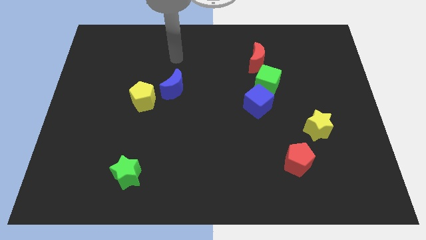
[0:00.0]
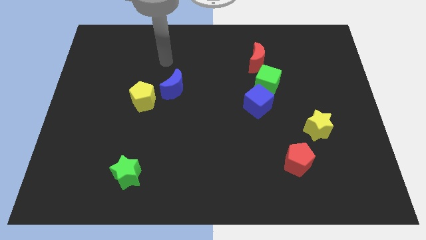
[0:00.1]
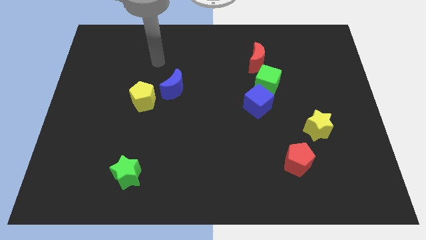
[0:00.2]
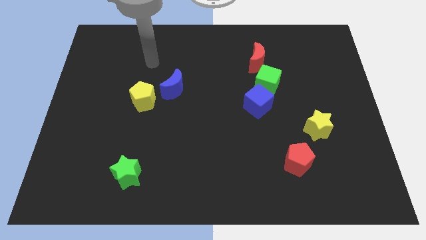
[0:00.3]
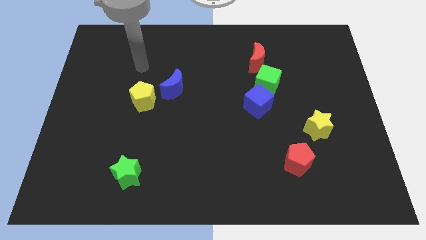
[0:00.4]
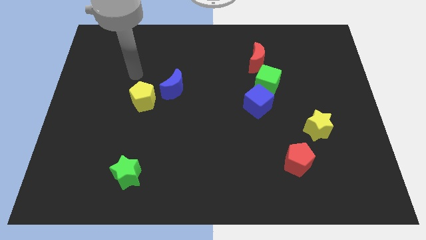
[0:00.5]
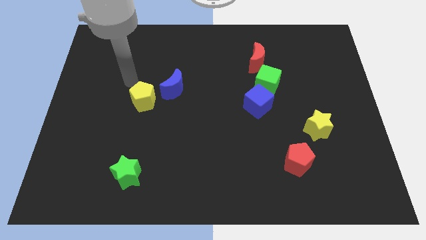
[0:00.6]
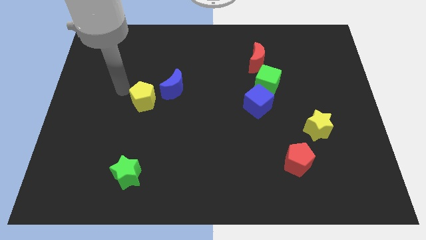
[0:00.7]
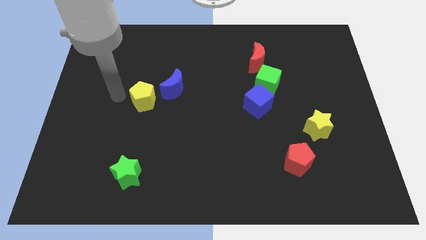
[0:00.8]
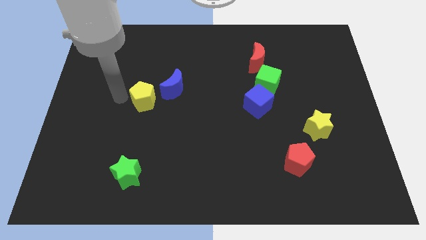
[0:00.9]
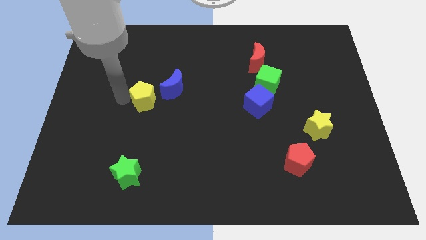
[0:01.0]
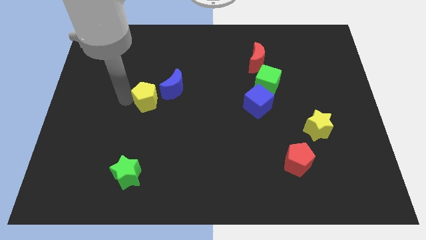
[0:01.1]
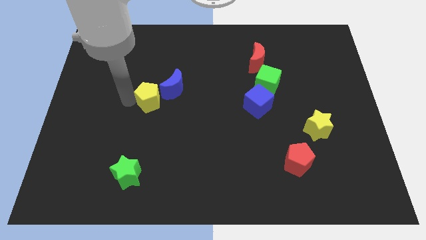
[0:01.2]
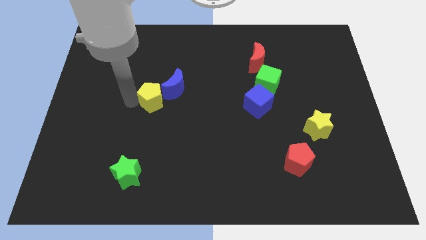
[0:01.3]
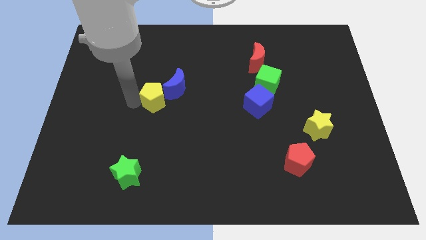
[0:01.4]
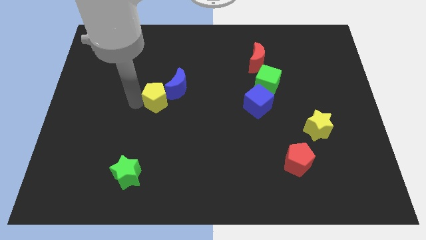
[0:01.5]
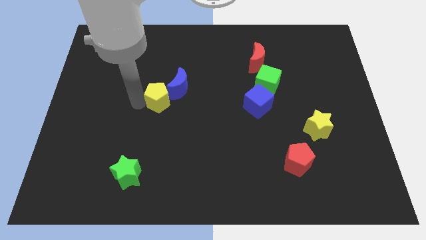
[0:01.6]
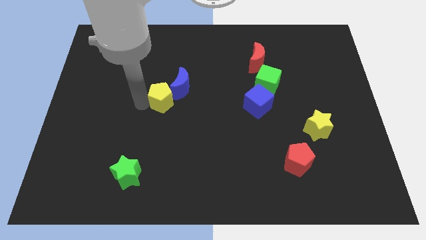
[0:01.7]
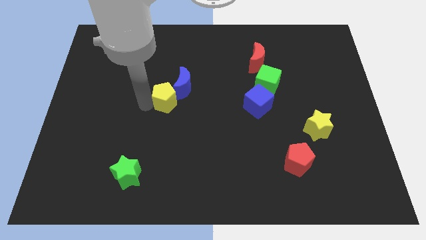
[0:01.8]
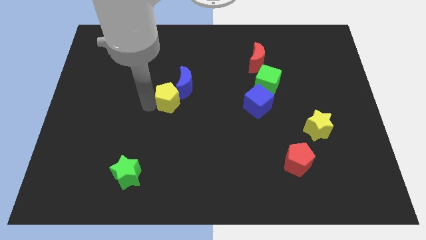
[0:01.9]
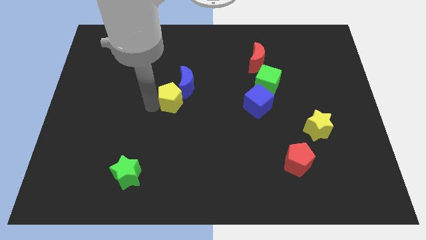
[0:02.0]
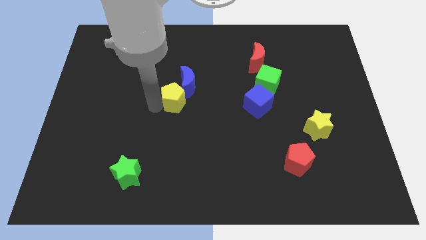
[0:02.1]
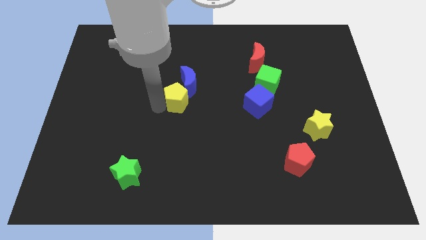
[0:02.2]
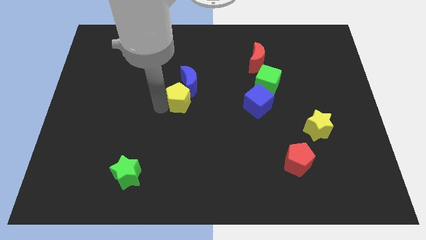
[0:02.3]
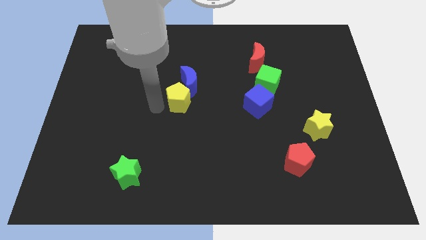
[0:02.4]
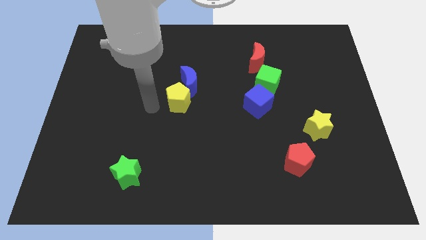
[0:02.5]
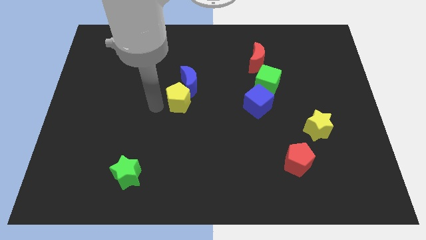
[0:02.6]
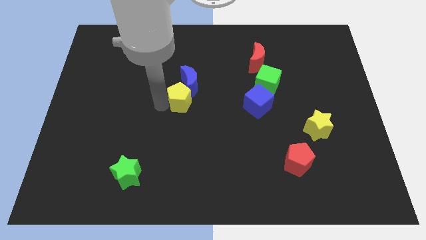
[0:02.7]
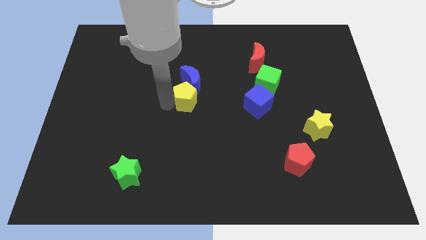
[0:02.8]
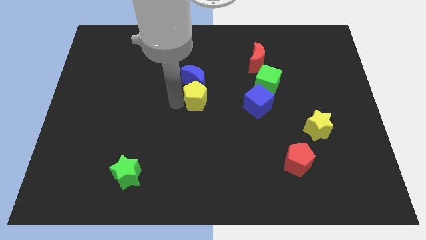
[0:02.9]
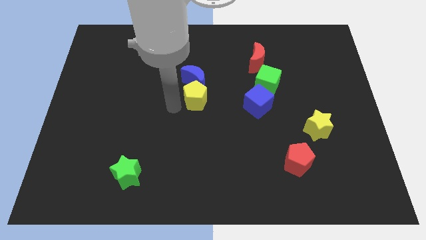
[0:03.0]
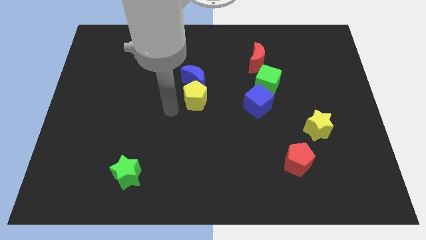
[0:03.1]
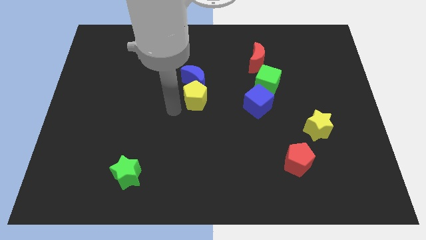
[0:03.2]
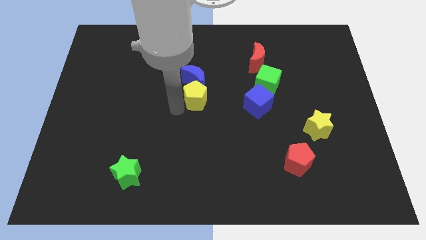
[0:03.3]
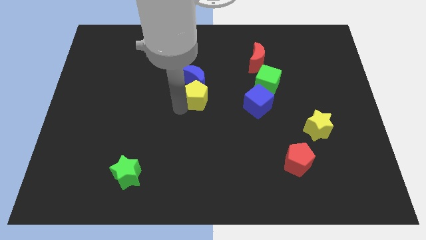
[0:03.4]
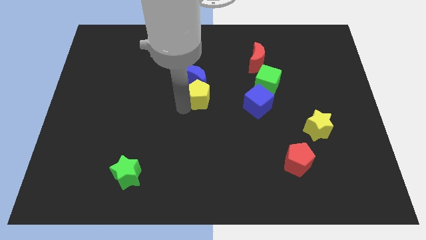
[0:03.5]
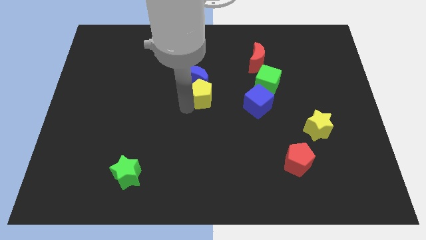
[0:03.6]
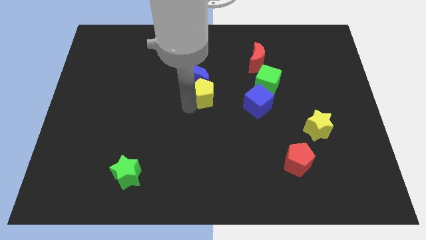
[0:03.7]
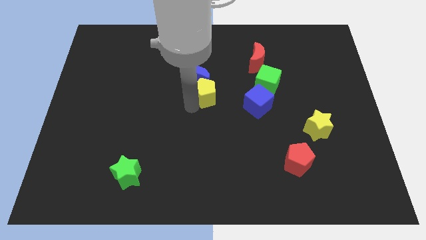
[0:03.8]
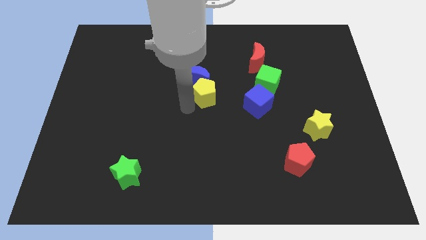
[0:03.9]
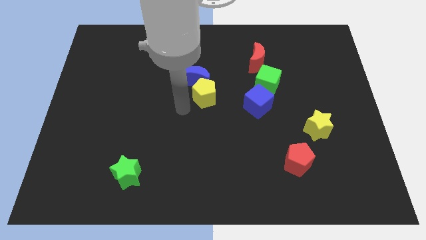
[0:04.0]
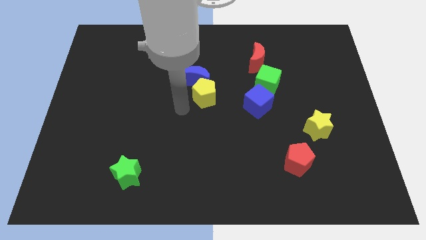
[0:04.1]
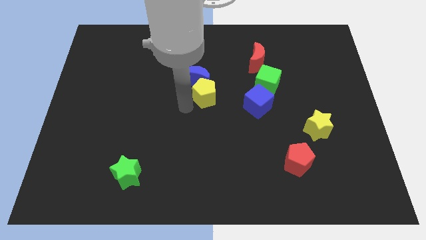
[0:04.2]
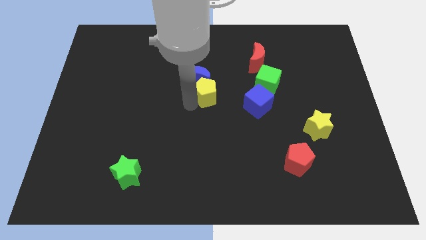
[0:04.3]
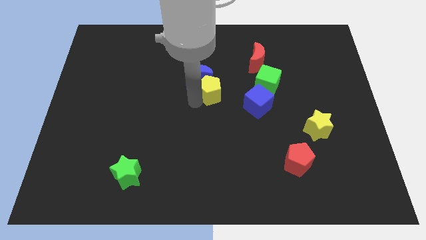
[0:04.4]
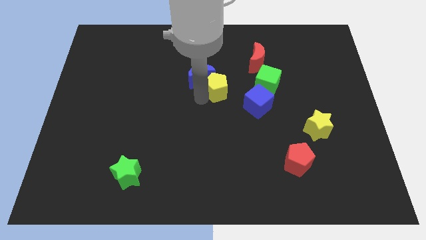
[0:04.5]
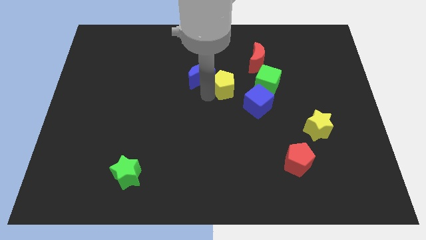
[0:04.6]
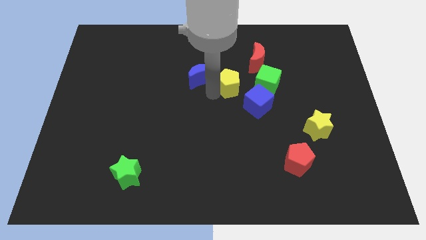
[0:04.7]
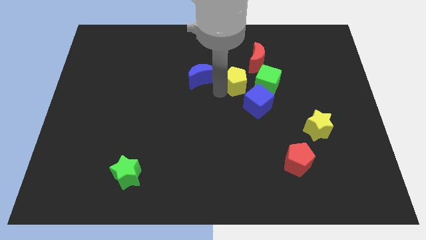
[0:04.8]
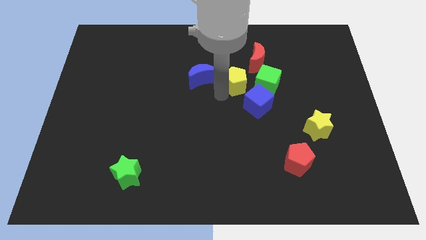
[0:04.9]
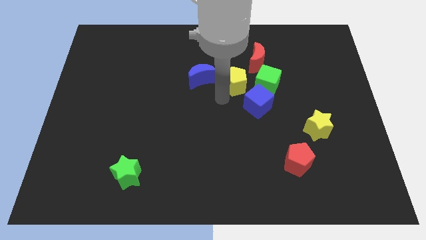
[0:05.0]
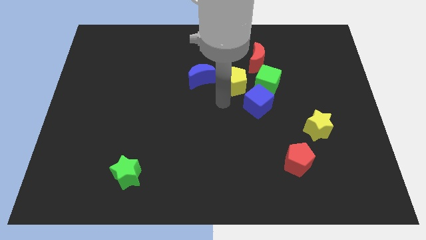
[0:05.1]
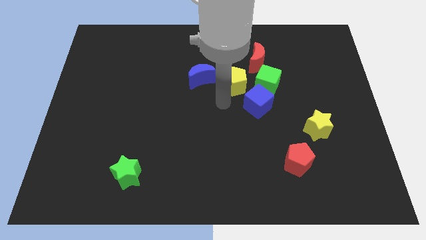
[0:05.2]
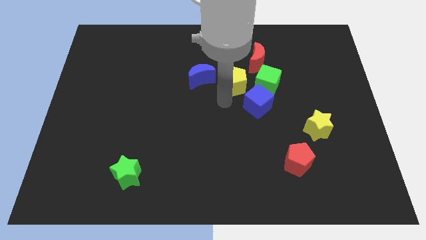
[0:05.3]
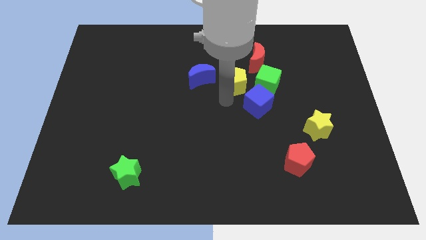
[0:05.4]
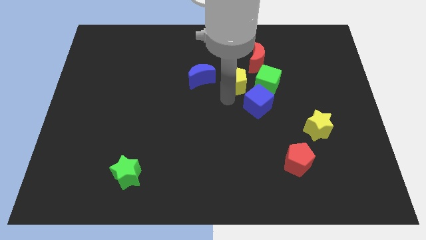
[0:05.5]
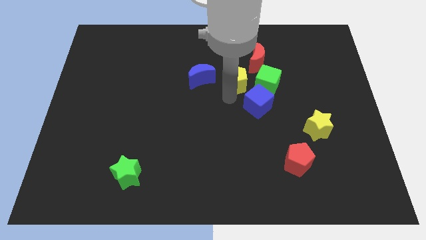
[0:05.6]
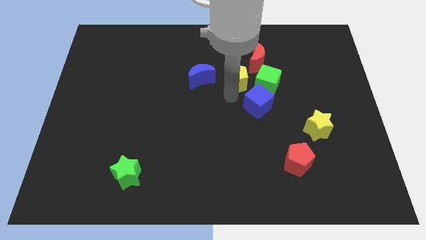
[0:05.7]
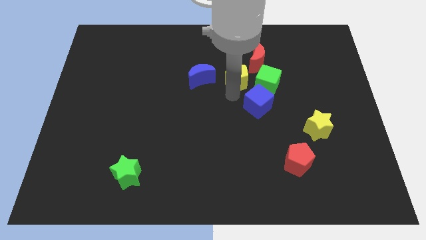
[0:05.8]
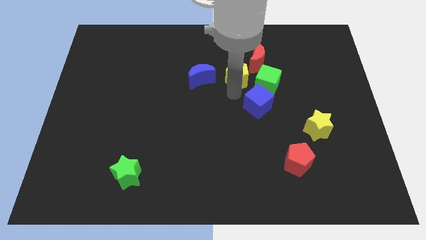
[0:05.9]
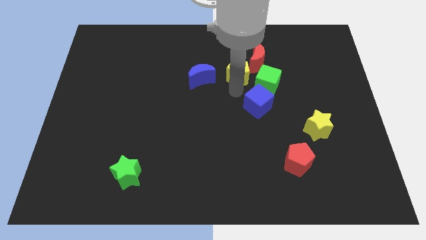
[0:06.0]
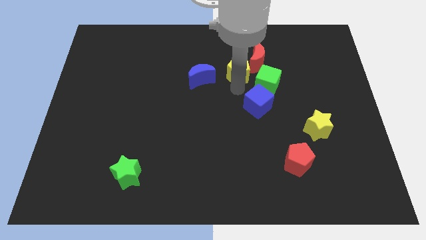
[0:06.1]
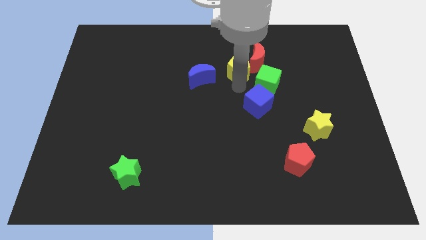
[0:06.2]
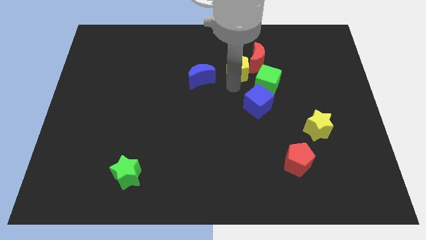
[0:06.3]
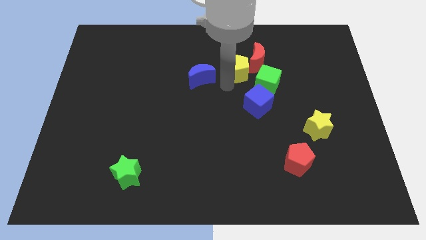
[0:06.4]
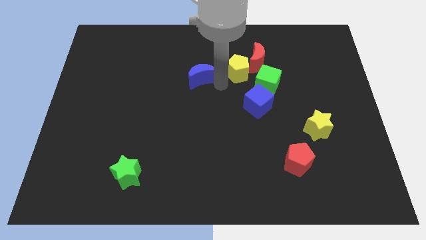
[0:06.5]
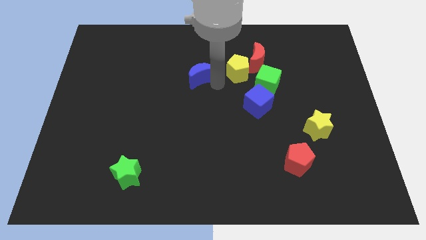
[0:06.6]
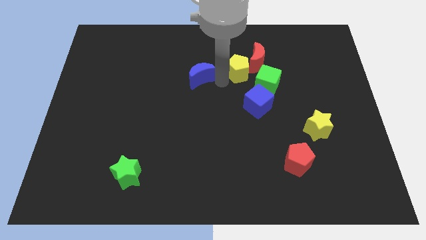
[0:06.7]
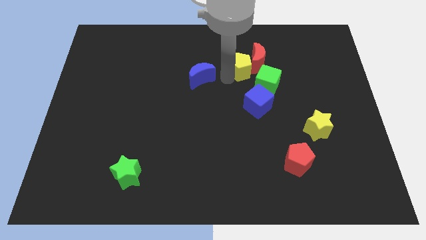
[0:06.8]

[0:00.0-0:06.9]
move the yellow pentagon to the red moon
